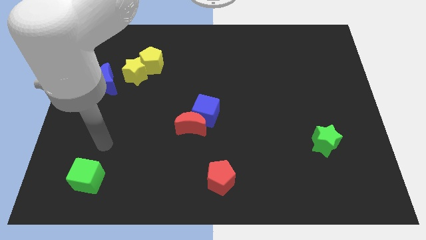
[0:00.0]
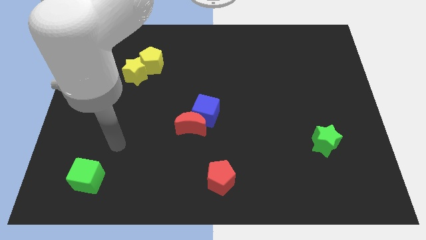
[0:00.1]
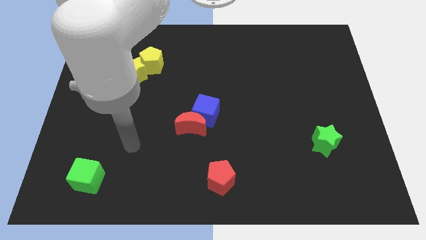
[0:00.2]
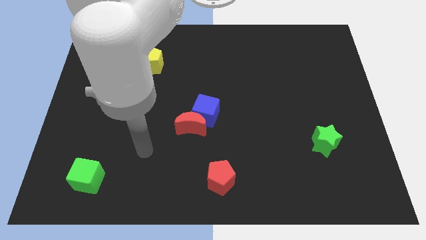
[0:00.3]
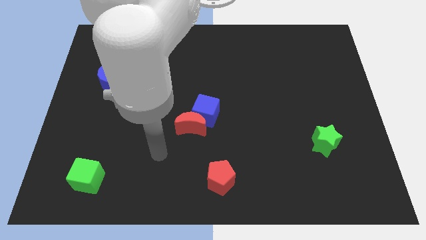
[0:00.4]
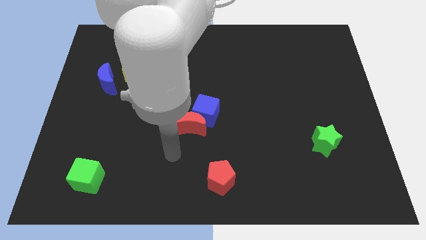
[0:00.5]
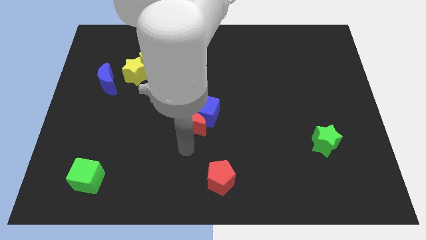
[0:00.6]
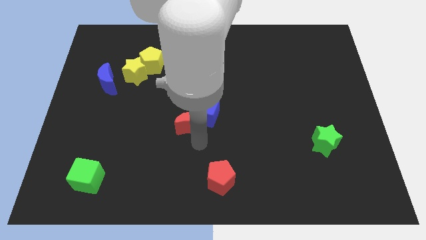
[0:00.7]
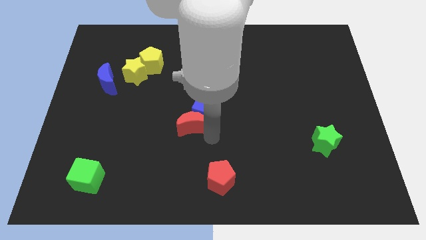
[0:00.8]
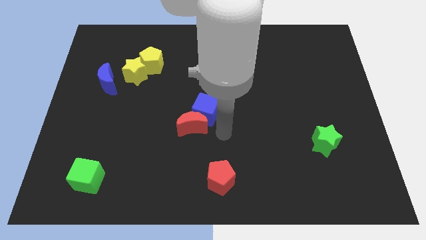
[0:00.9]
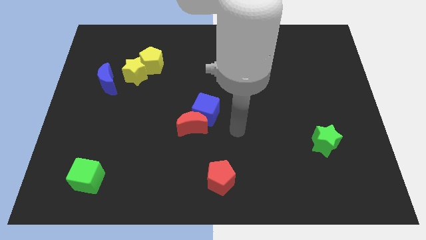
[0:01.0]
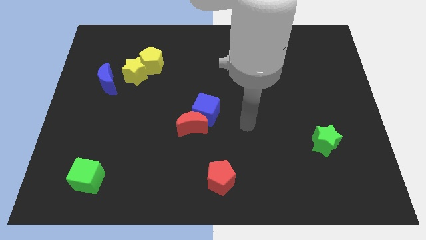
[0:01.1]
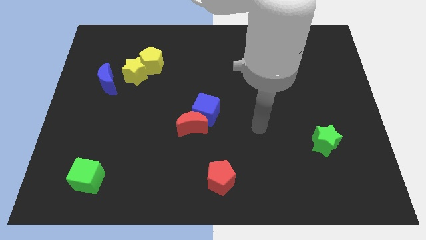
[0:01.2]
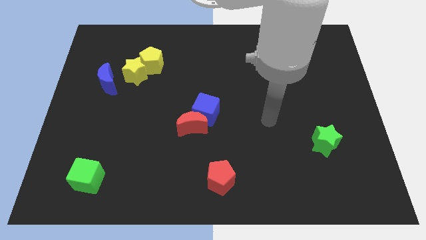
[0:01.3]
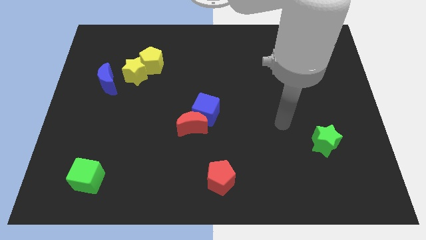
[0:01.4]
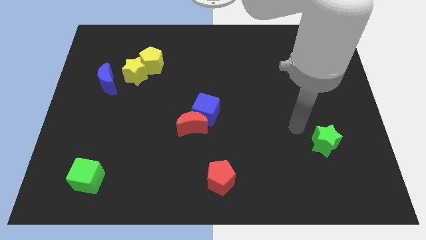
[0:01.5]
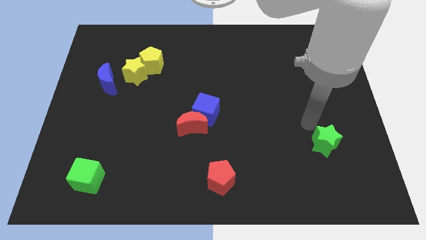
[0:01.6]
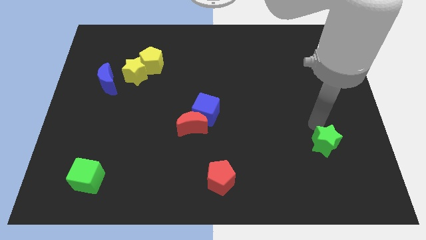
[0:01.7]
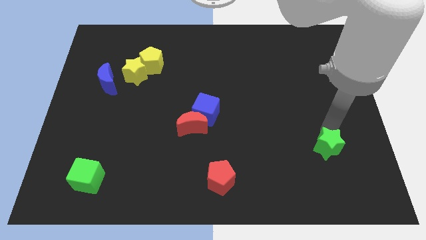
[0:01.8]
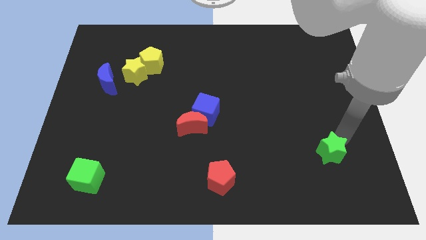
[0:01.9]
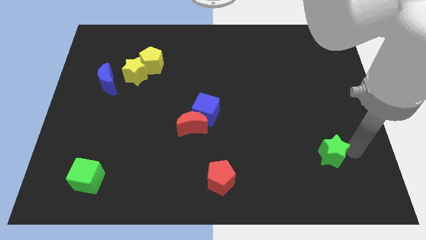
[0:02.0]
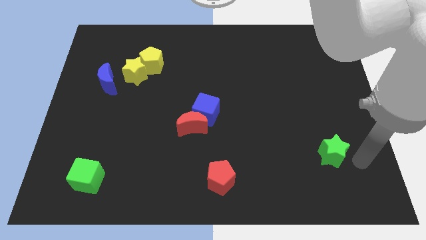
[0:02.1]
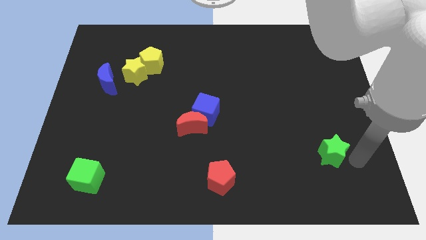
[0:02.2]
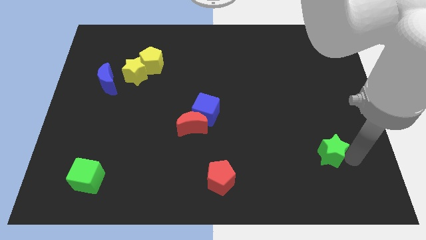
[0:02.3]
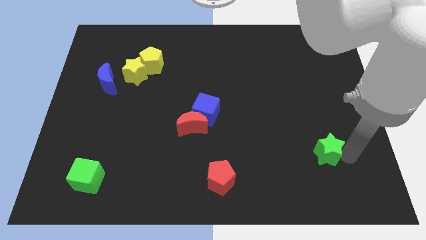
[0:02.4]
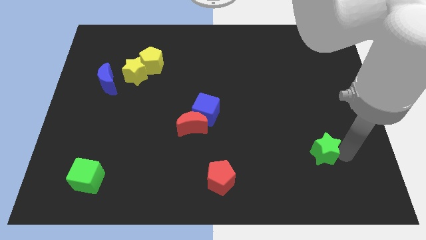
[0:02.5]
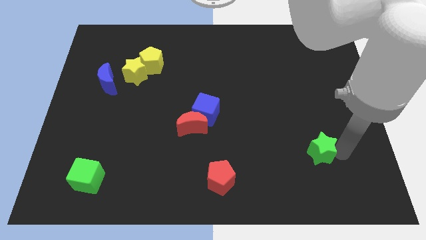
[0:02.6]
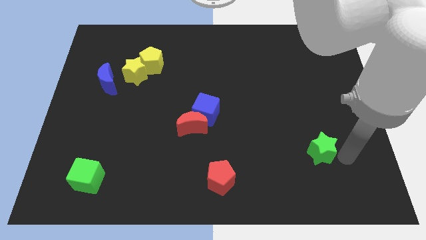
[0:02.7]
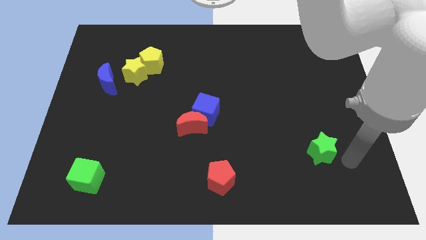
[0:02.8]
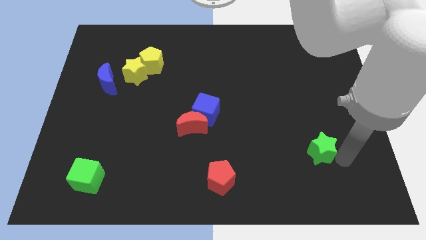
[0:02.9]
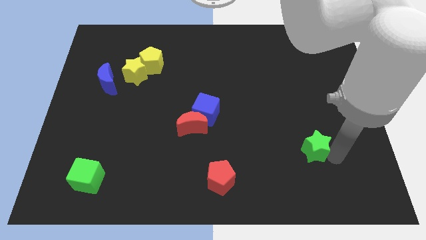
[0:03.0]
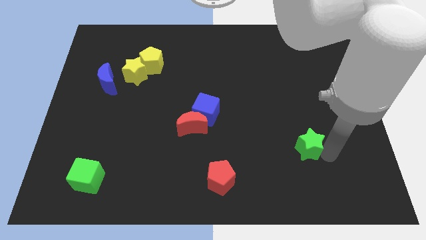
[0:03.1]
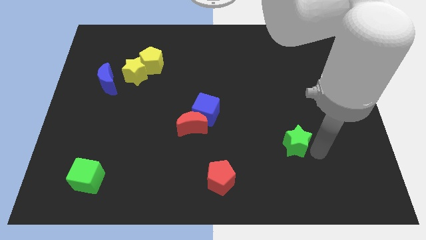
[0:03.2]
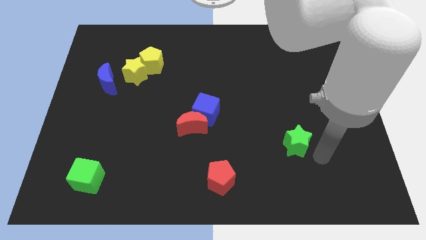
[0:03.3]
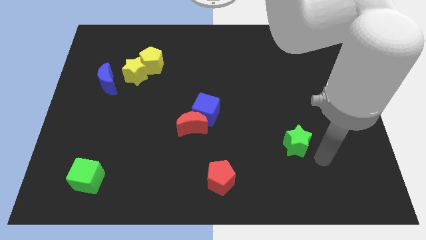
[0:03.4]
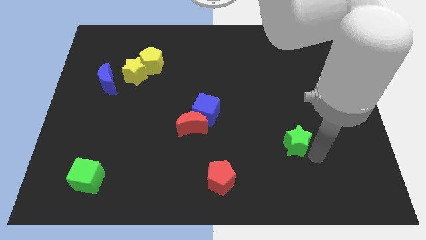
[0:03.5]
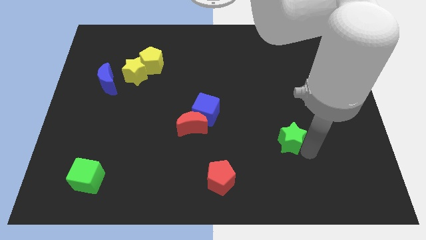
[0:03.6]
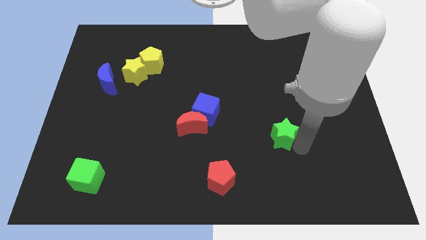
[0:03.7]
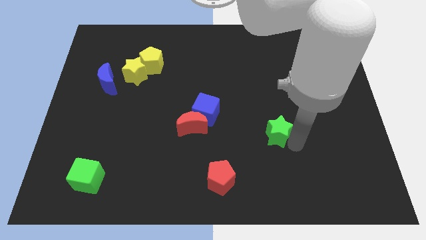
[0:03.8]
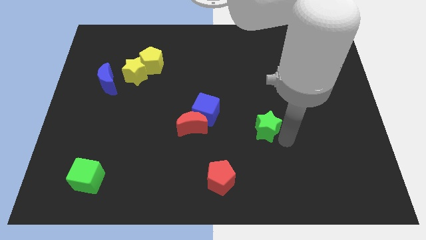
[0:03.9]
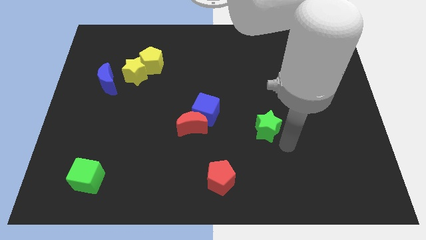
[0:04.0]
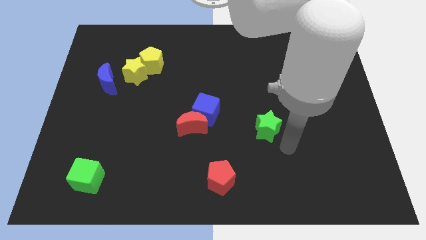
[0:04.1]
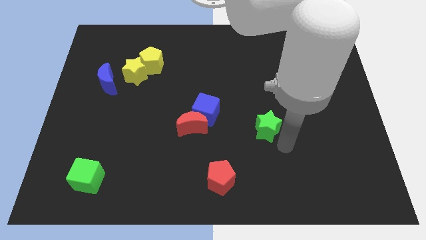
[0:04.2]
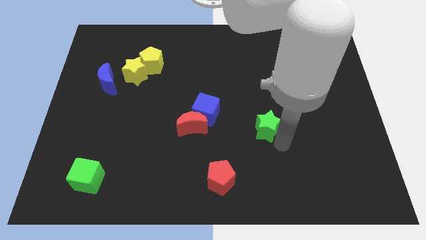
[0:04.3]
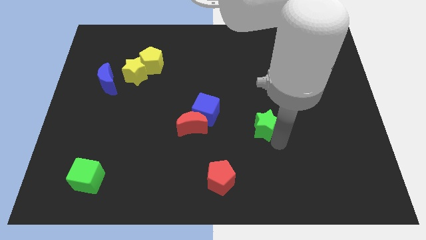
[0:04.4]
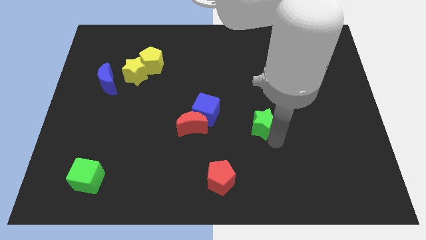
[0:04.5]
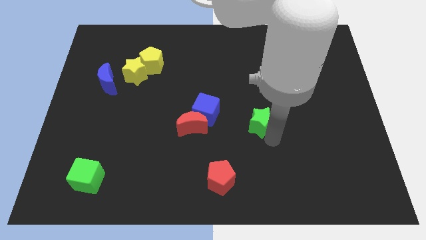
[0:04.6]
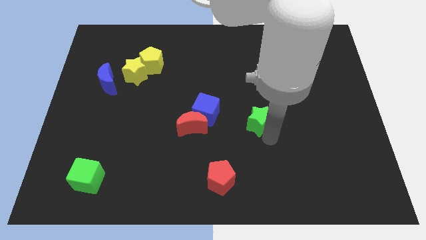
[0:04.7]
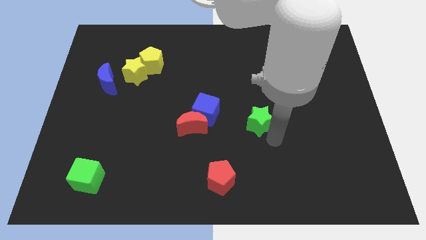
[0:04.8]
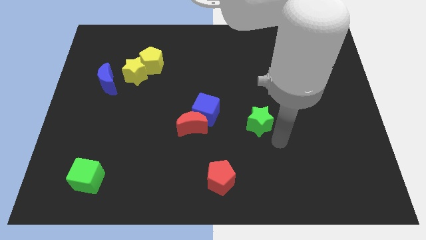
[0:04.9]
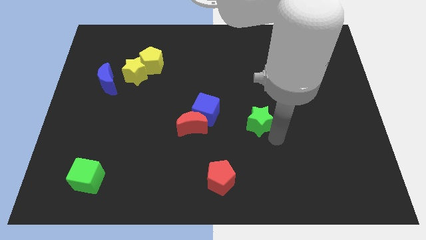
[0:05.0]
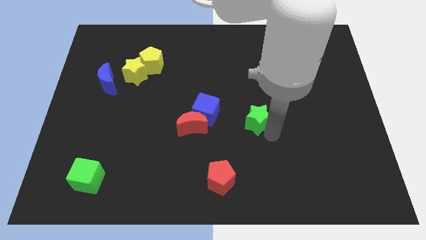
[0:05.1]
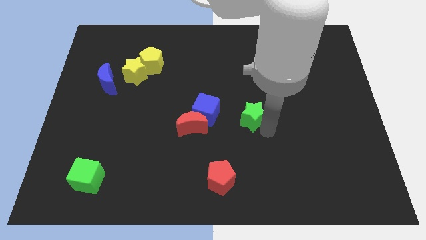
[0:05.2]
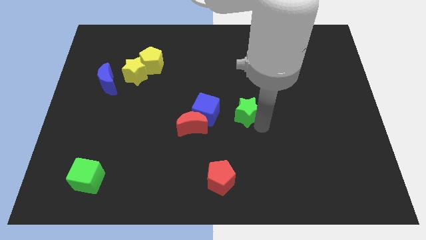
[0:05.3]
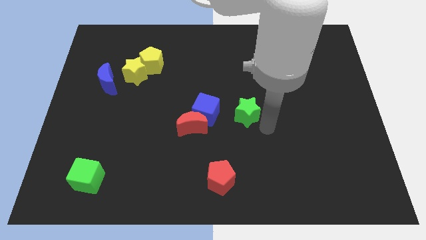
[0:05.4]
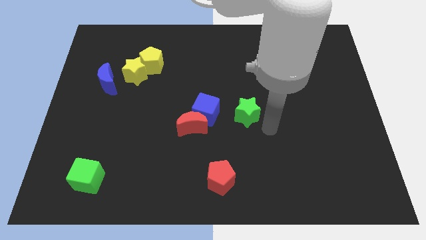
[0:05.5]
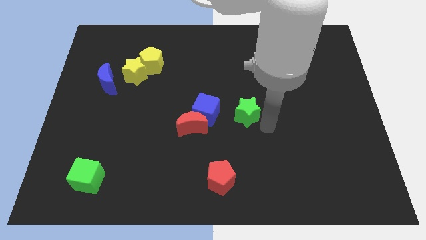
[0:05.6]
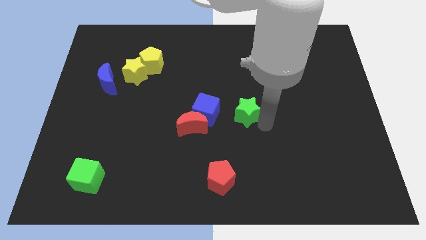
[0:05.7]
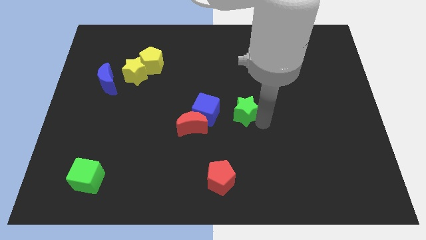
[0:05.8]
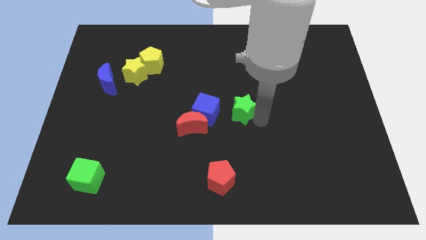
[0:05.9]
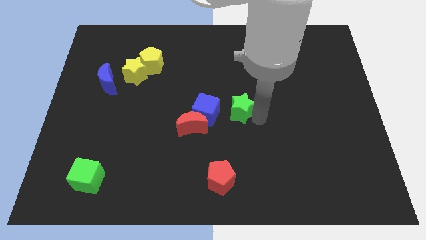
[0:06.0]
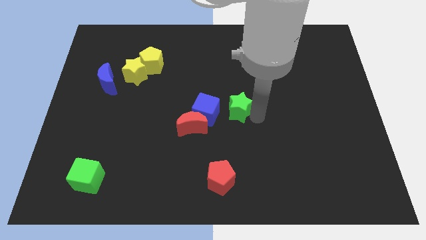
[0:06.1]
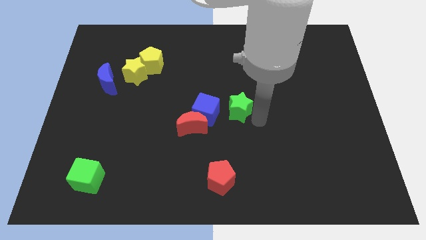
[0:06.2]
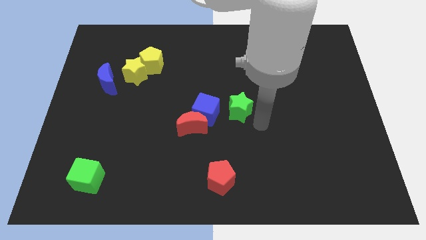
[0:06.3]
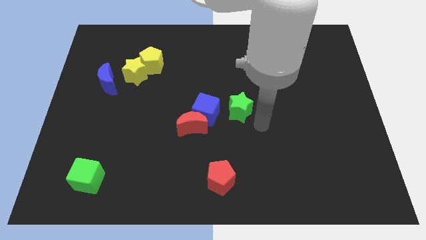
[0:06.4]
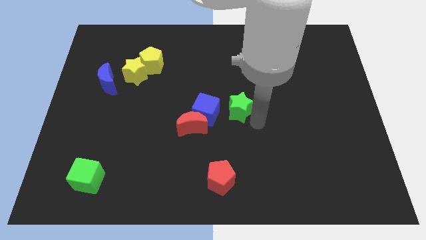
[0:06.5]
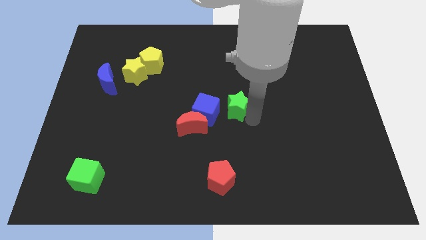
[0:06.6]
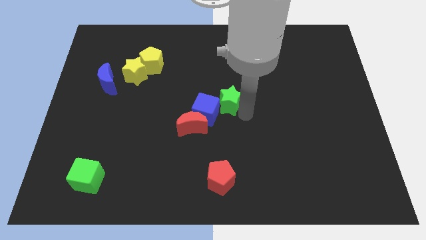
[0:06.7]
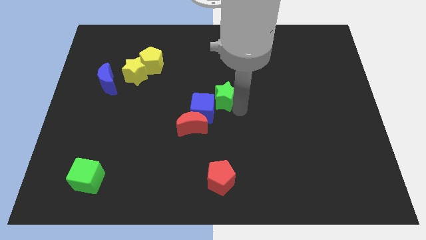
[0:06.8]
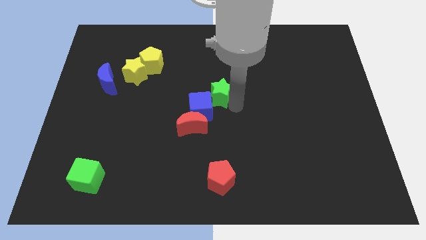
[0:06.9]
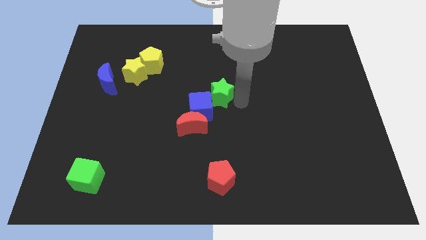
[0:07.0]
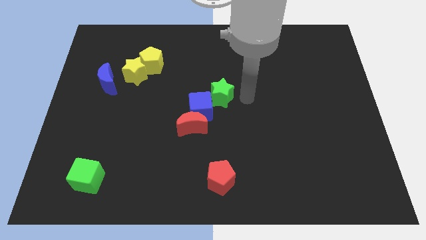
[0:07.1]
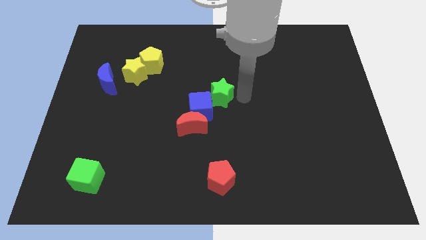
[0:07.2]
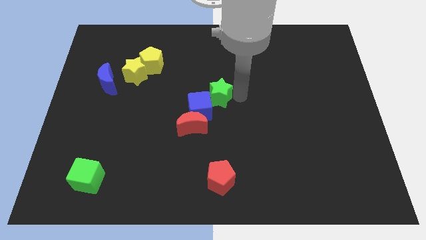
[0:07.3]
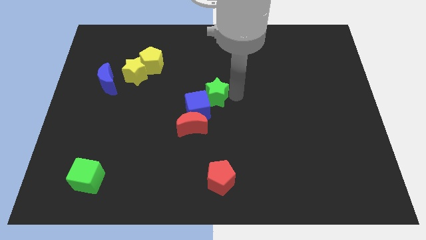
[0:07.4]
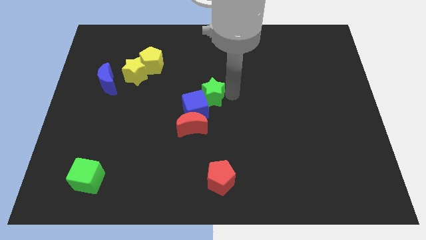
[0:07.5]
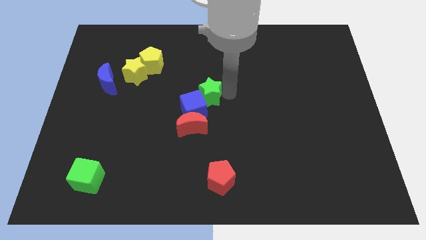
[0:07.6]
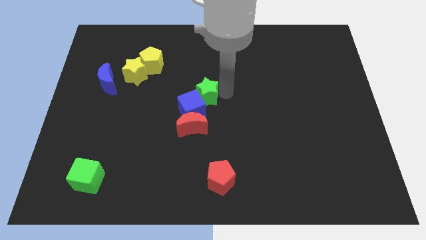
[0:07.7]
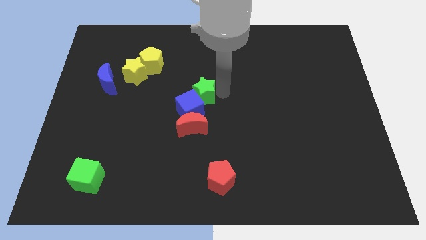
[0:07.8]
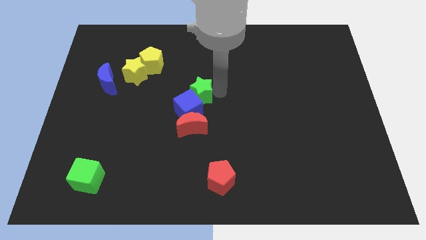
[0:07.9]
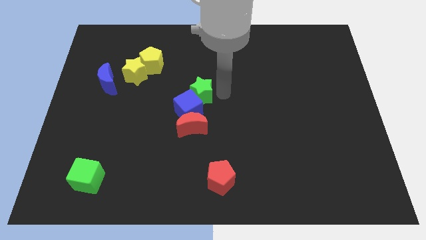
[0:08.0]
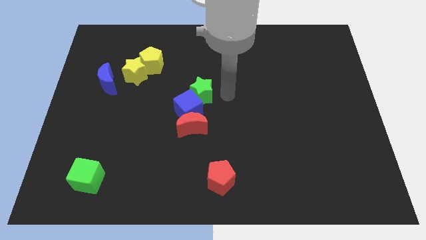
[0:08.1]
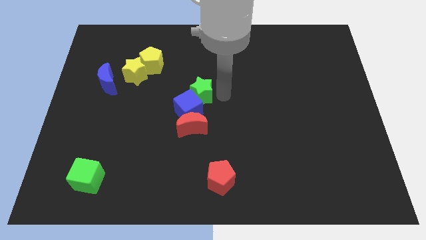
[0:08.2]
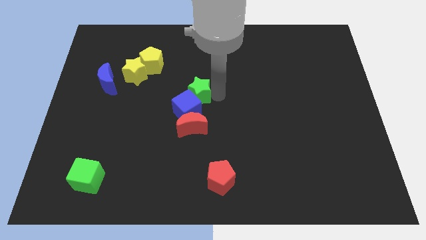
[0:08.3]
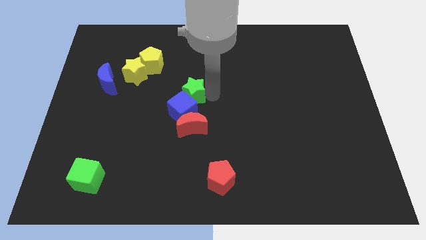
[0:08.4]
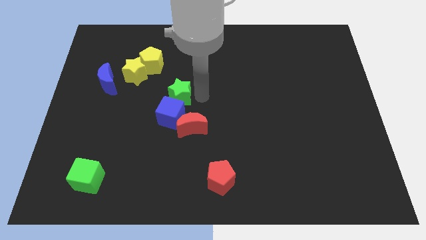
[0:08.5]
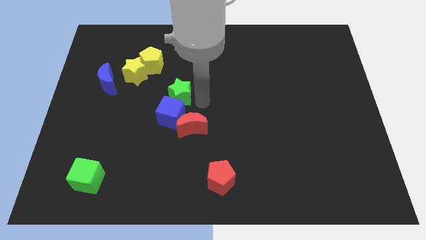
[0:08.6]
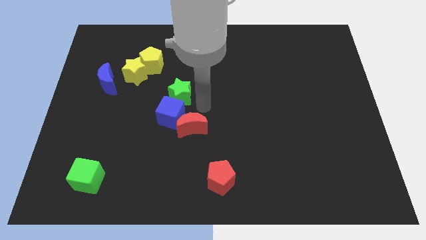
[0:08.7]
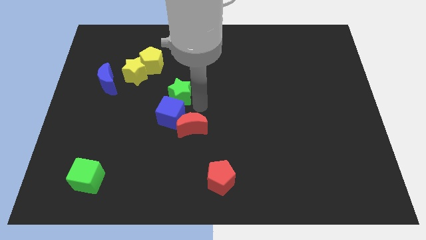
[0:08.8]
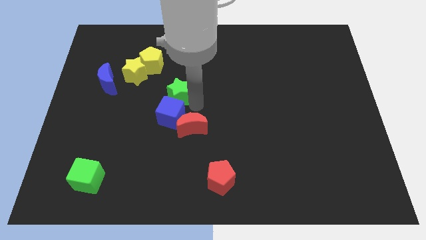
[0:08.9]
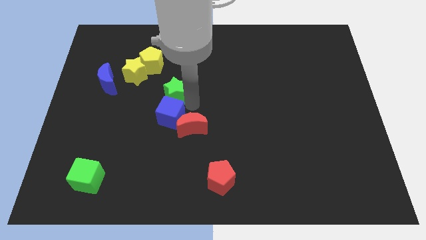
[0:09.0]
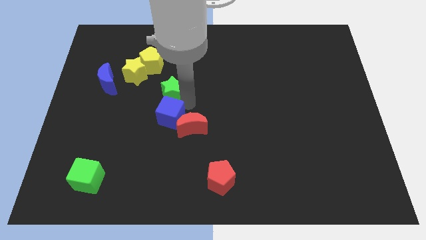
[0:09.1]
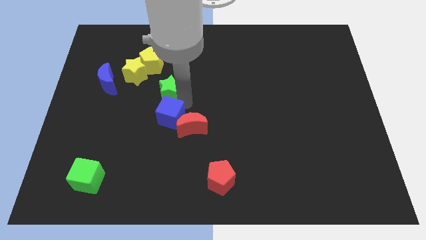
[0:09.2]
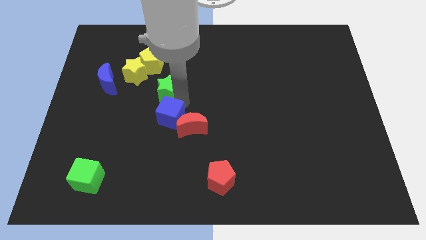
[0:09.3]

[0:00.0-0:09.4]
push the green star to the right side of the blue moon
